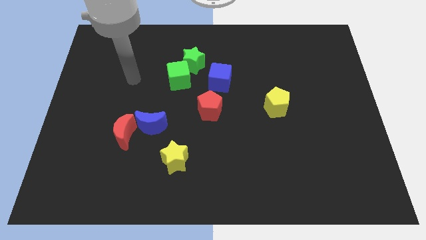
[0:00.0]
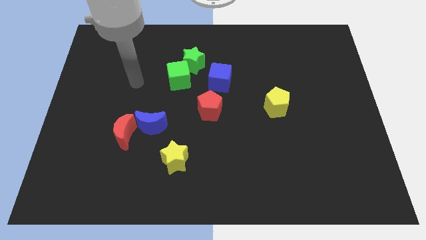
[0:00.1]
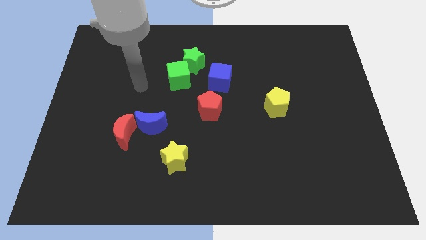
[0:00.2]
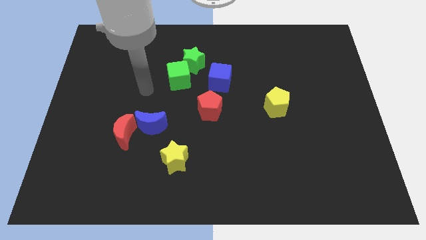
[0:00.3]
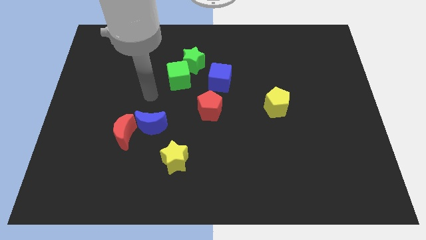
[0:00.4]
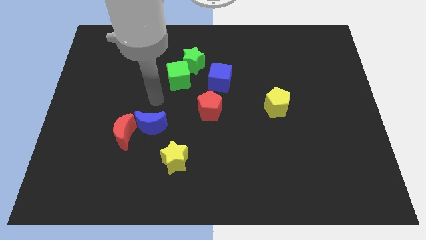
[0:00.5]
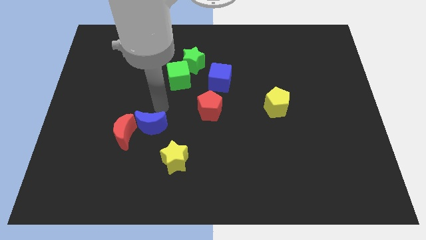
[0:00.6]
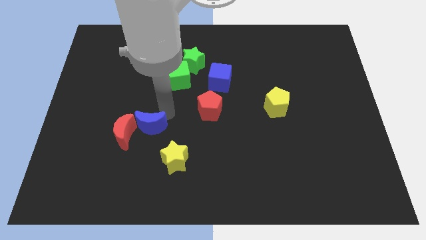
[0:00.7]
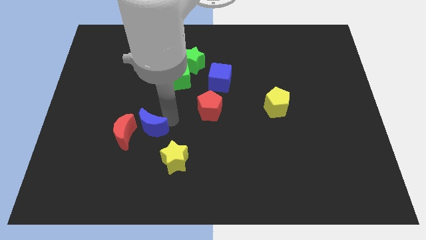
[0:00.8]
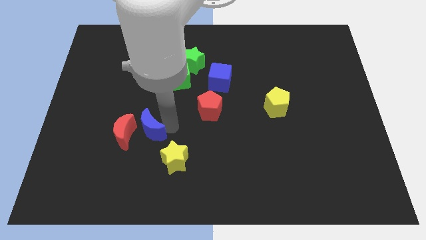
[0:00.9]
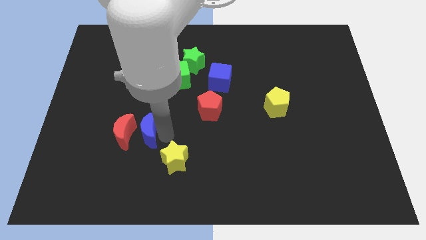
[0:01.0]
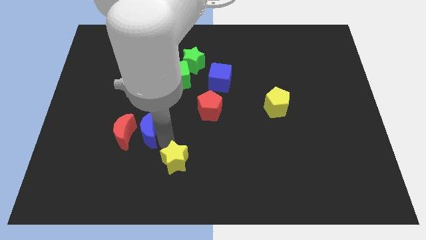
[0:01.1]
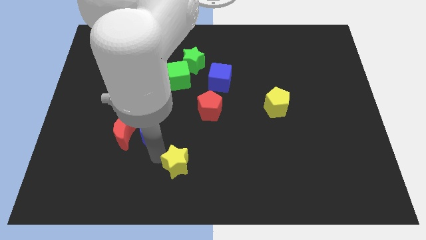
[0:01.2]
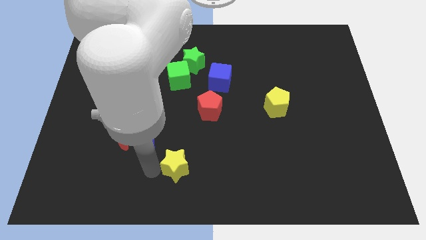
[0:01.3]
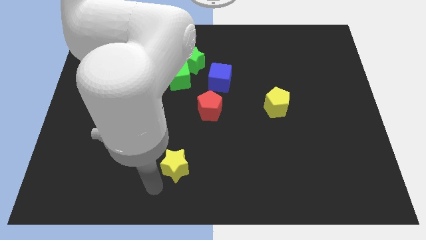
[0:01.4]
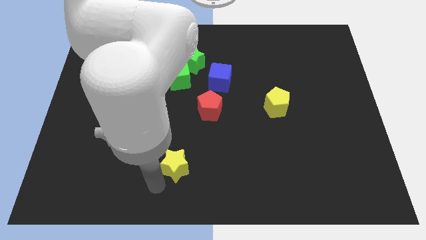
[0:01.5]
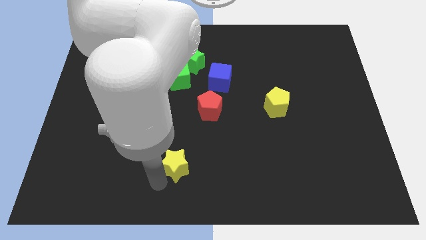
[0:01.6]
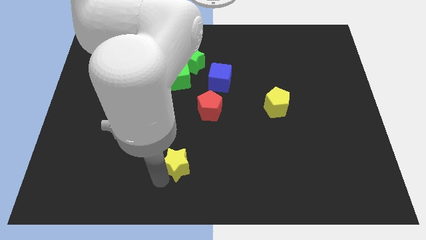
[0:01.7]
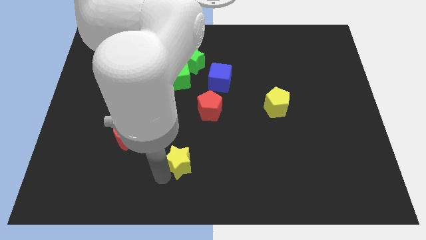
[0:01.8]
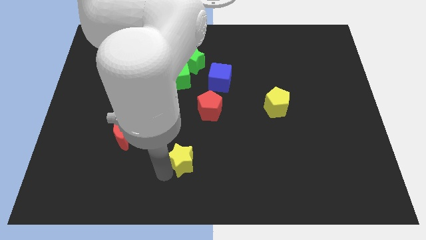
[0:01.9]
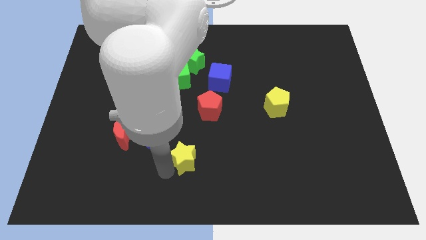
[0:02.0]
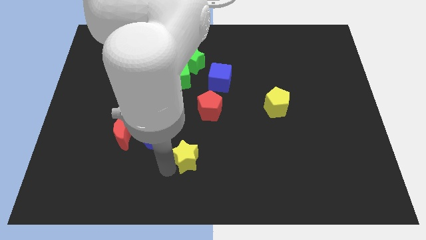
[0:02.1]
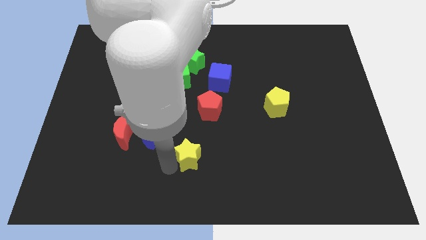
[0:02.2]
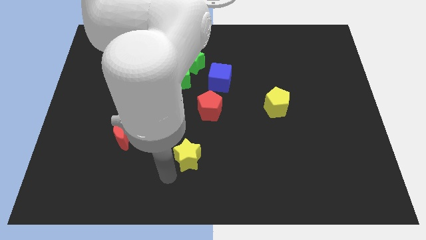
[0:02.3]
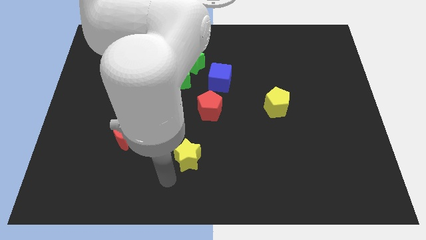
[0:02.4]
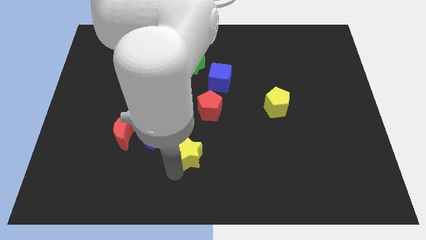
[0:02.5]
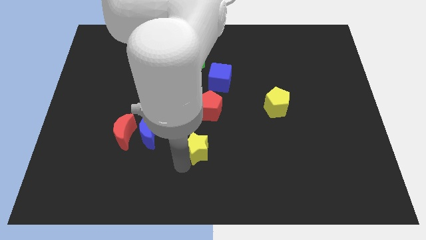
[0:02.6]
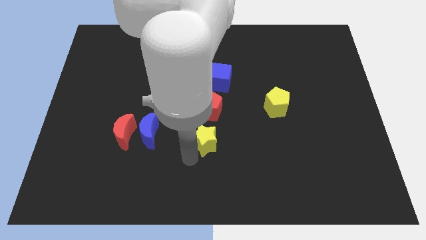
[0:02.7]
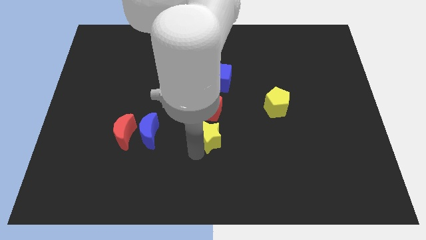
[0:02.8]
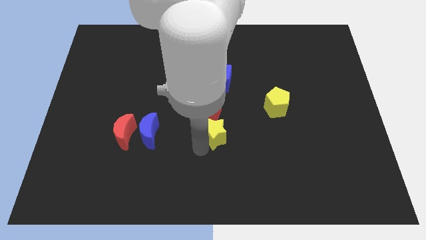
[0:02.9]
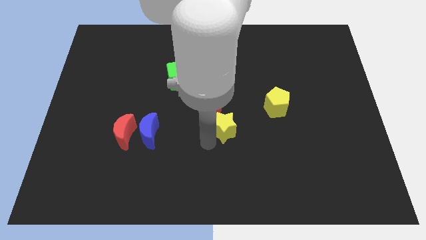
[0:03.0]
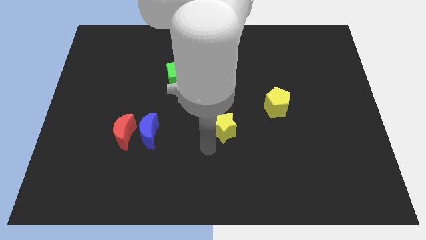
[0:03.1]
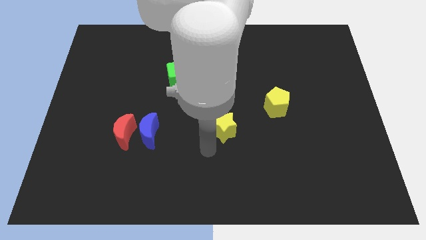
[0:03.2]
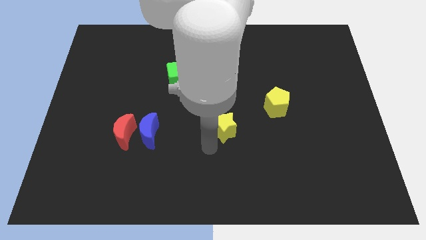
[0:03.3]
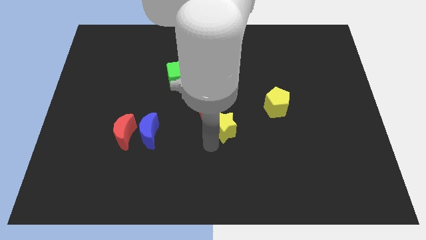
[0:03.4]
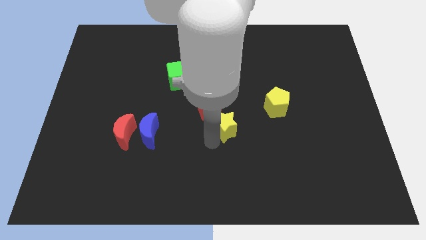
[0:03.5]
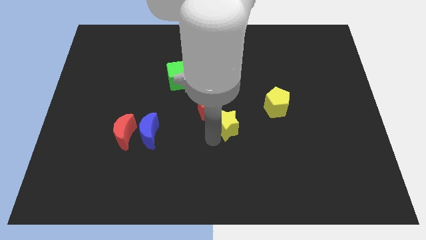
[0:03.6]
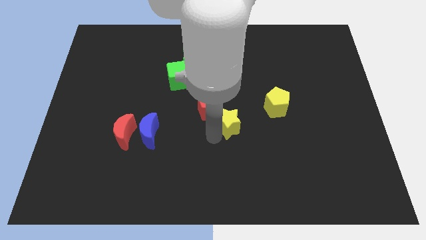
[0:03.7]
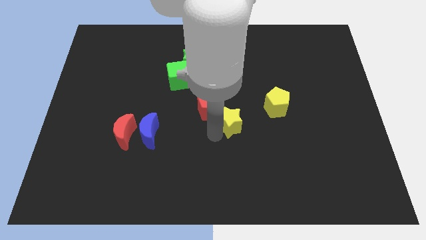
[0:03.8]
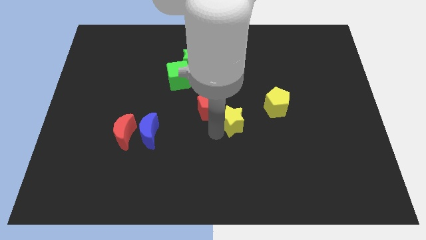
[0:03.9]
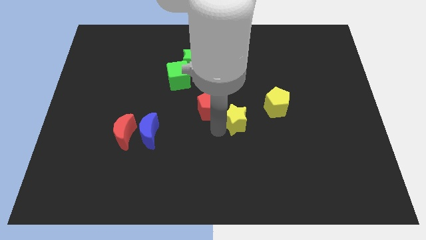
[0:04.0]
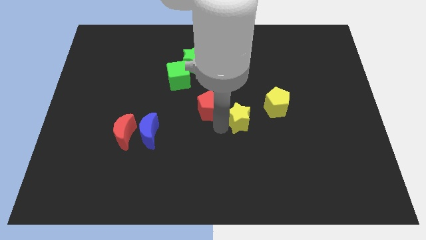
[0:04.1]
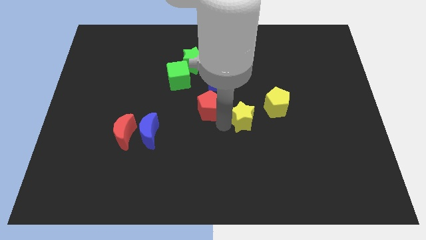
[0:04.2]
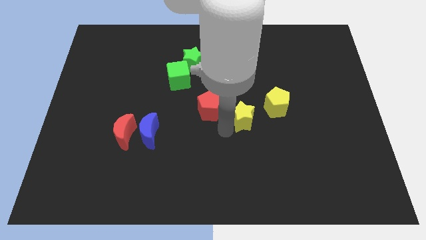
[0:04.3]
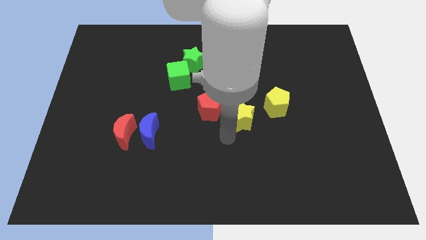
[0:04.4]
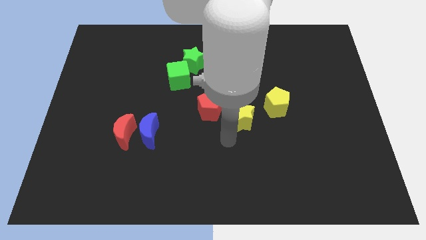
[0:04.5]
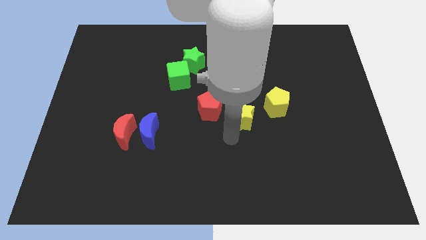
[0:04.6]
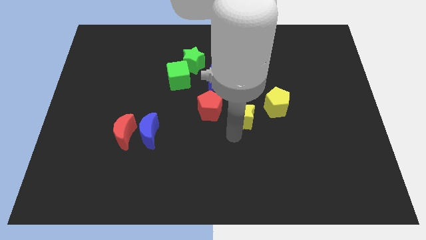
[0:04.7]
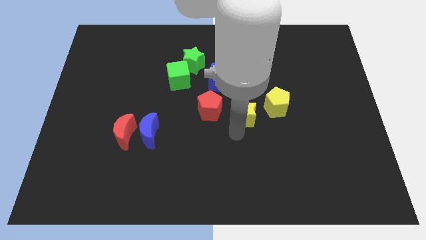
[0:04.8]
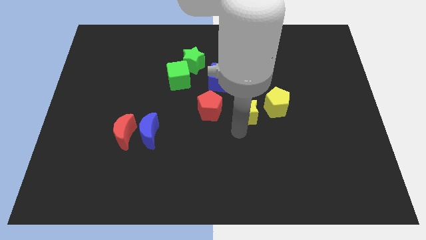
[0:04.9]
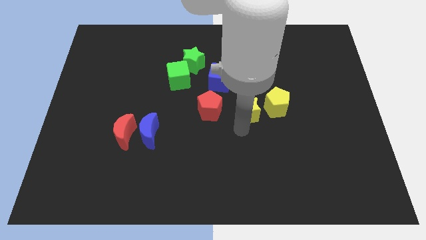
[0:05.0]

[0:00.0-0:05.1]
move the yellow star up and then to the right

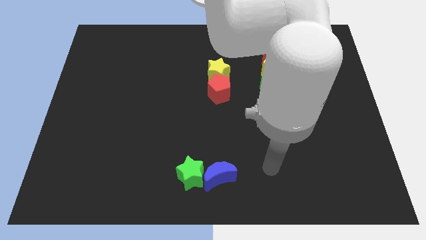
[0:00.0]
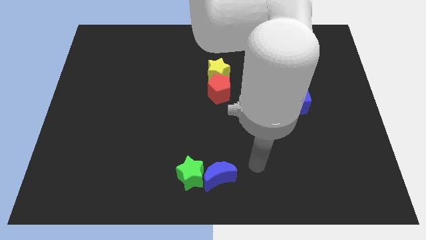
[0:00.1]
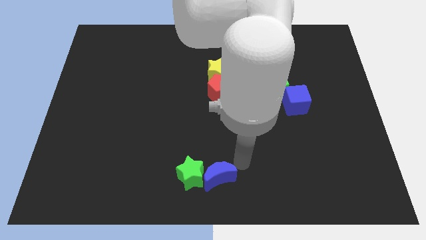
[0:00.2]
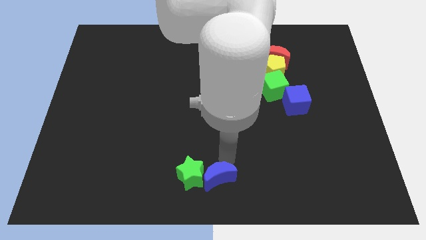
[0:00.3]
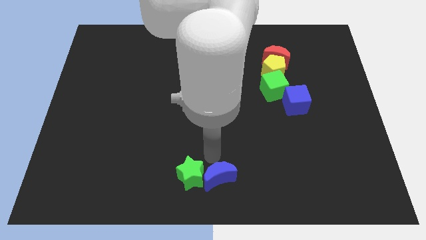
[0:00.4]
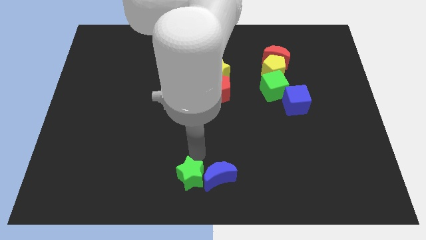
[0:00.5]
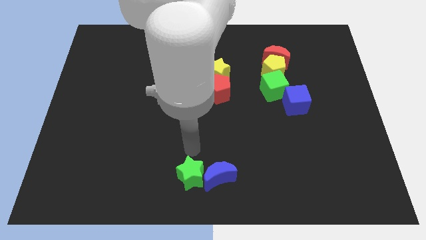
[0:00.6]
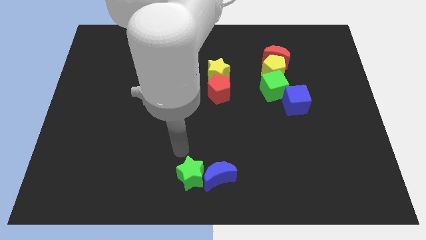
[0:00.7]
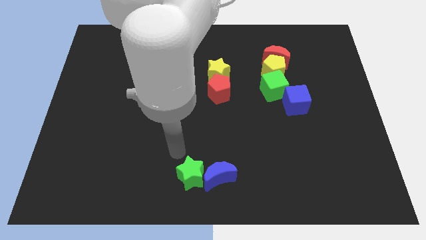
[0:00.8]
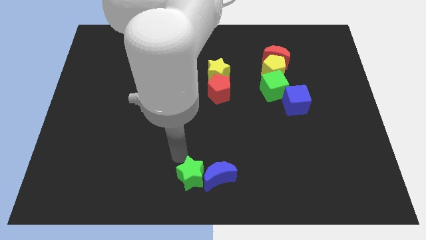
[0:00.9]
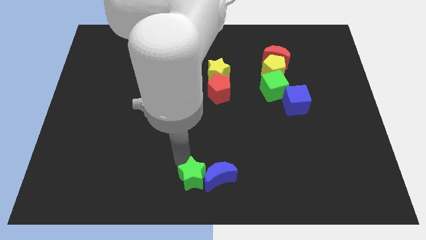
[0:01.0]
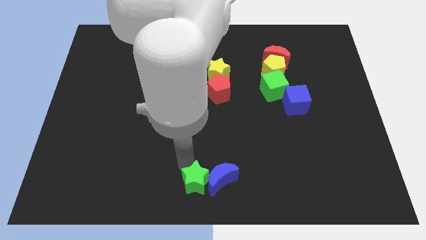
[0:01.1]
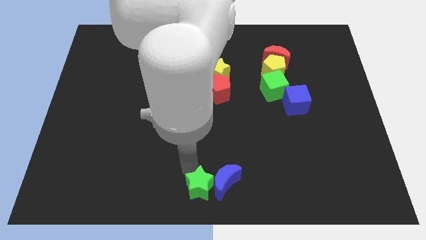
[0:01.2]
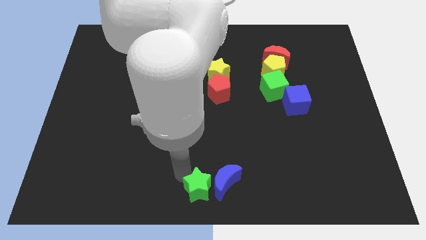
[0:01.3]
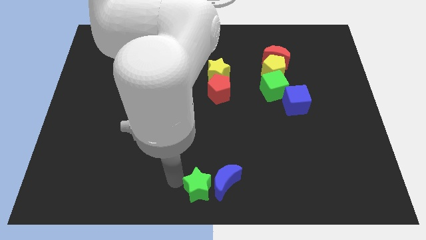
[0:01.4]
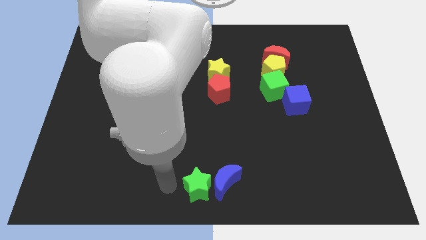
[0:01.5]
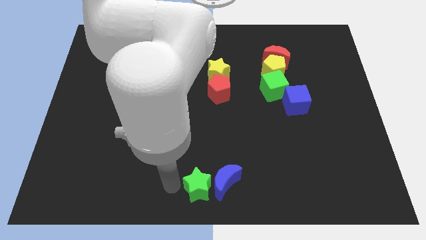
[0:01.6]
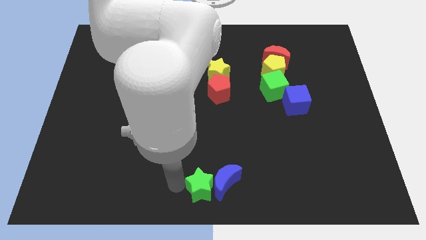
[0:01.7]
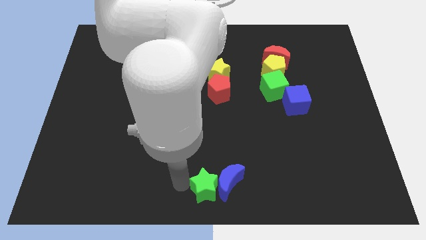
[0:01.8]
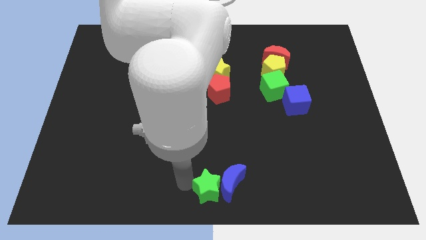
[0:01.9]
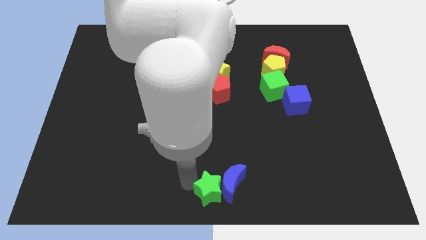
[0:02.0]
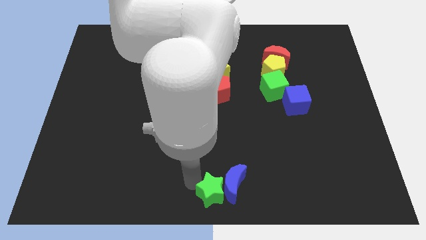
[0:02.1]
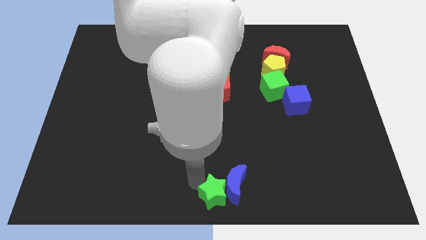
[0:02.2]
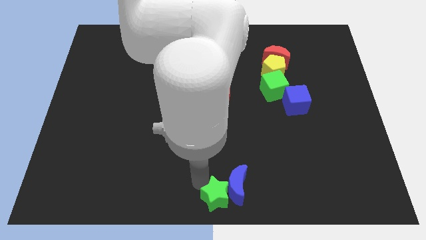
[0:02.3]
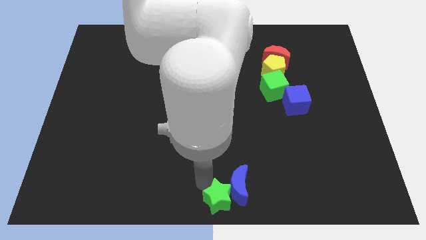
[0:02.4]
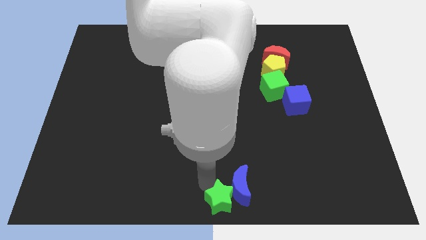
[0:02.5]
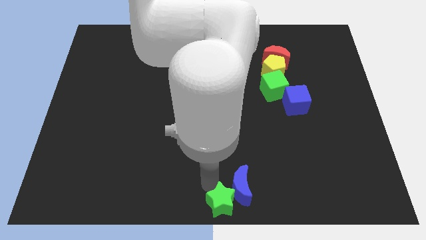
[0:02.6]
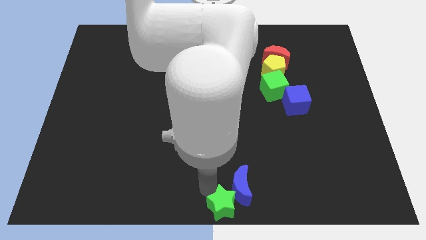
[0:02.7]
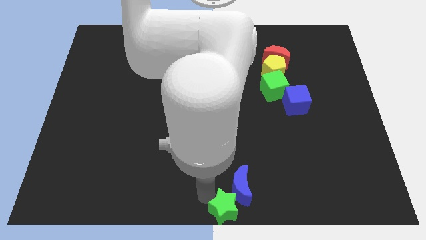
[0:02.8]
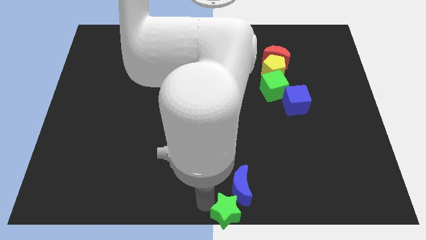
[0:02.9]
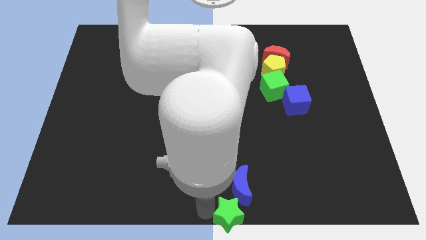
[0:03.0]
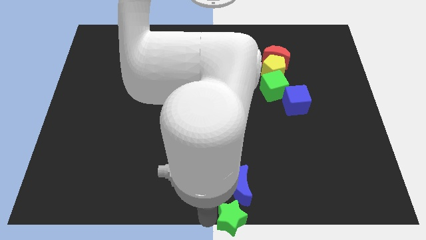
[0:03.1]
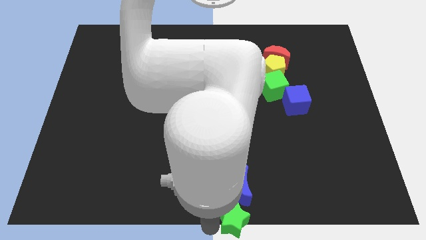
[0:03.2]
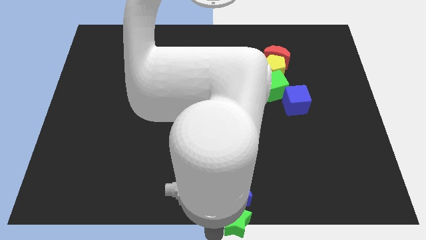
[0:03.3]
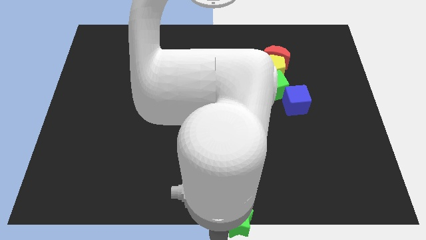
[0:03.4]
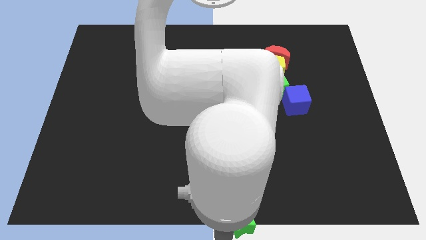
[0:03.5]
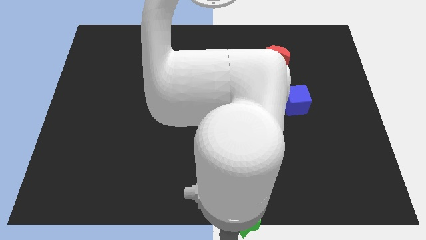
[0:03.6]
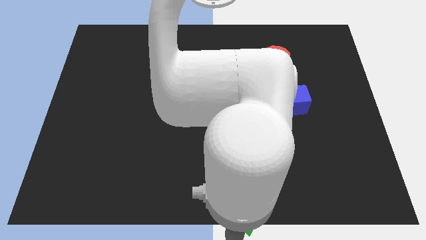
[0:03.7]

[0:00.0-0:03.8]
push the green star to the right a little bit
